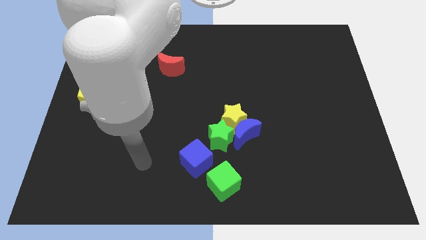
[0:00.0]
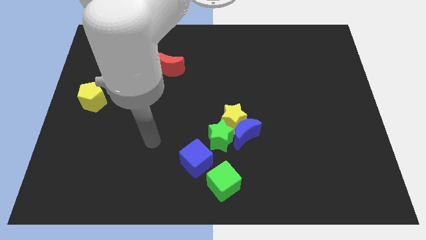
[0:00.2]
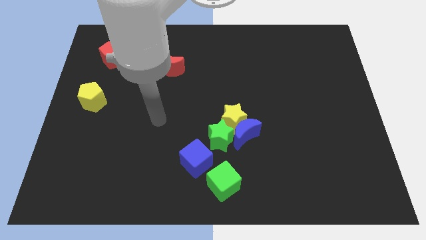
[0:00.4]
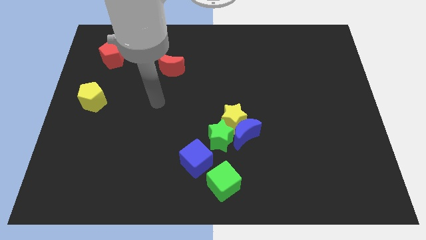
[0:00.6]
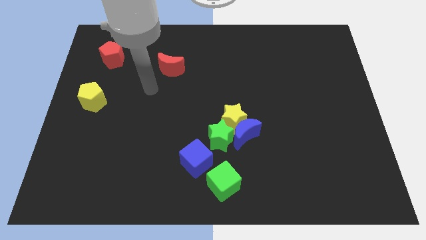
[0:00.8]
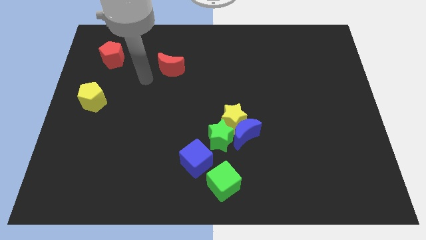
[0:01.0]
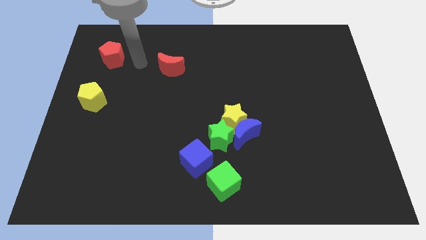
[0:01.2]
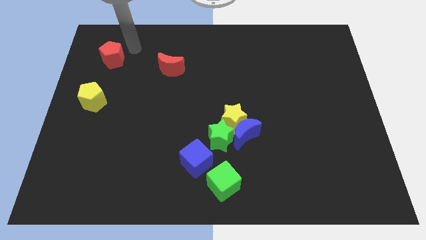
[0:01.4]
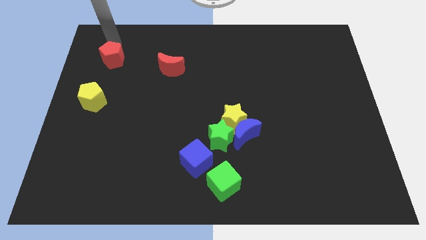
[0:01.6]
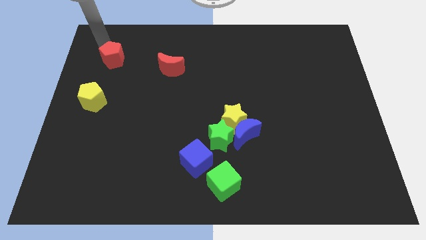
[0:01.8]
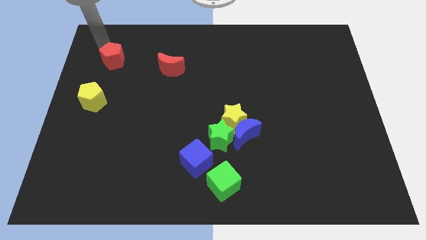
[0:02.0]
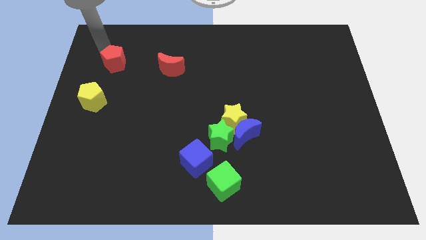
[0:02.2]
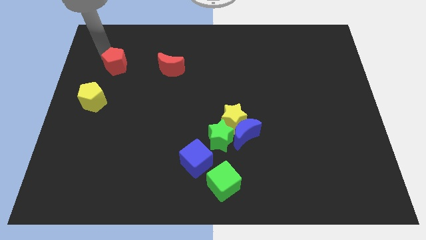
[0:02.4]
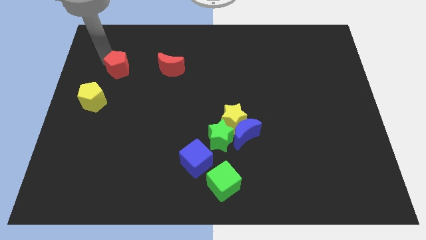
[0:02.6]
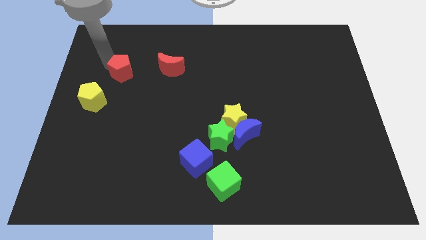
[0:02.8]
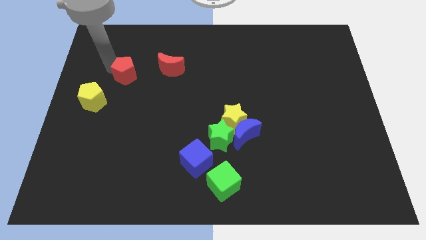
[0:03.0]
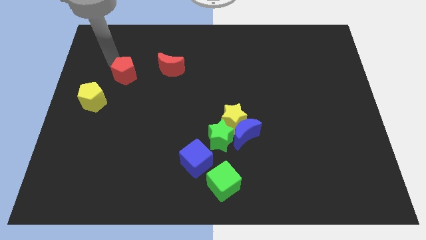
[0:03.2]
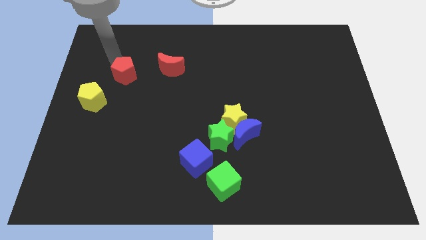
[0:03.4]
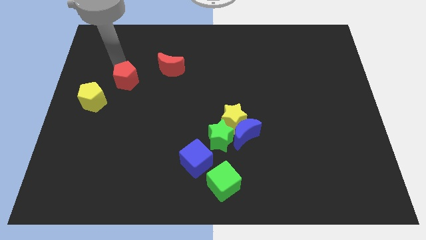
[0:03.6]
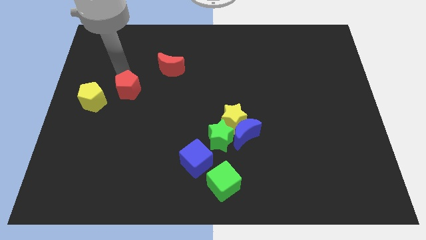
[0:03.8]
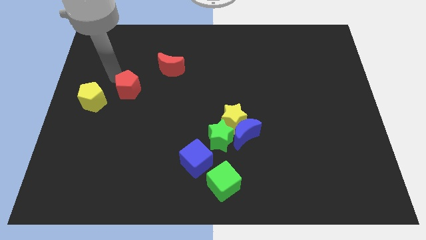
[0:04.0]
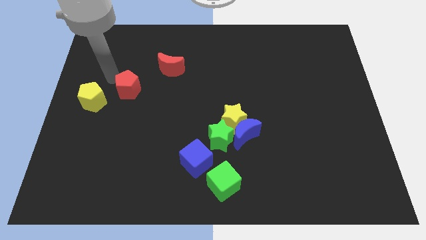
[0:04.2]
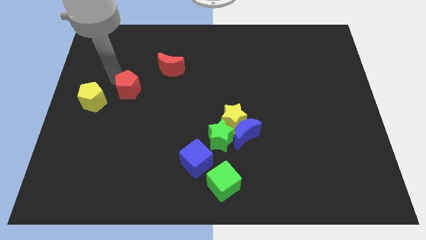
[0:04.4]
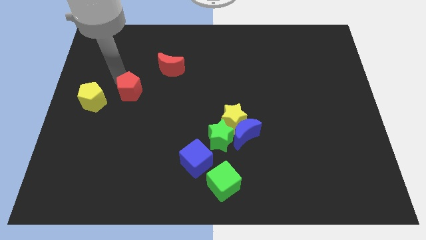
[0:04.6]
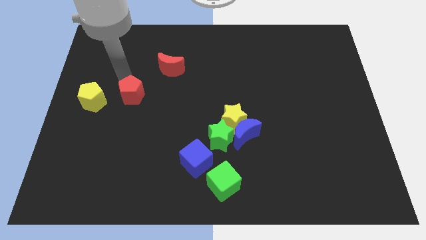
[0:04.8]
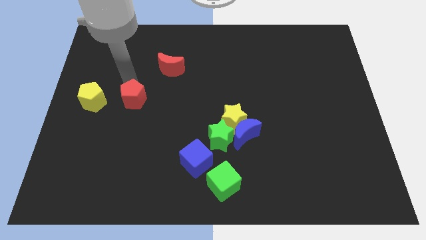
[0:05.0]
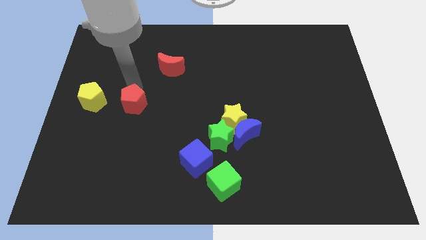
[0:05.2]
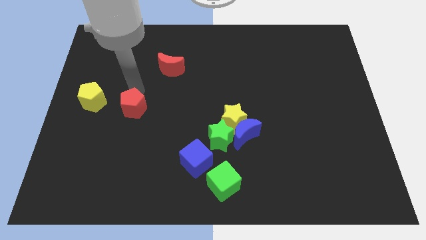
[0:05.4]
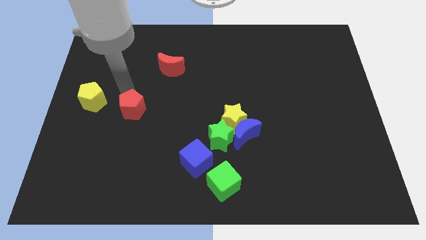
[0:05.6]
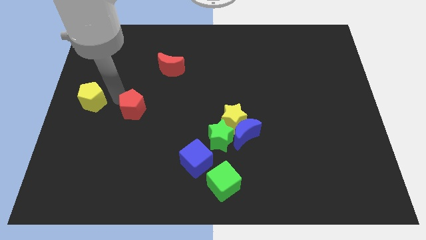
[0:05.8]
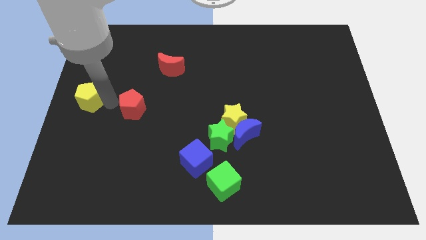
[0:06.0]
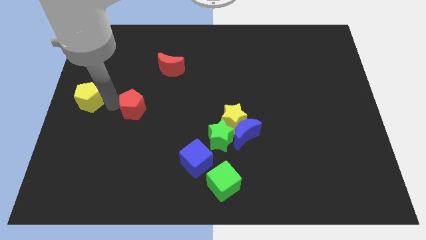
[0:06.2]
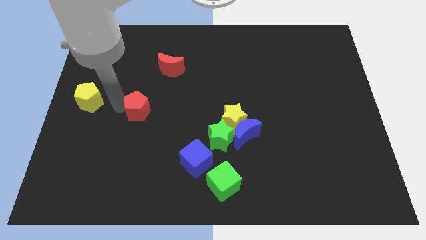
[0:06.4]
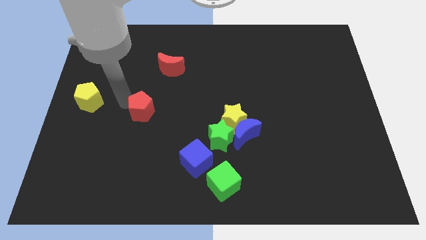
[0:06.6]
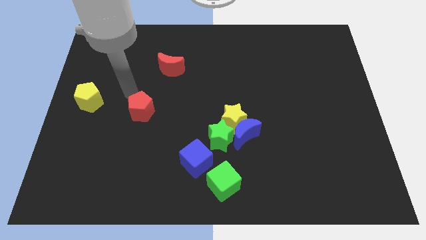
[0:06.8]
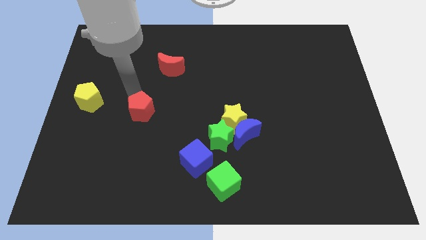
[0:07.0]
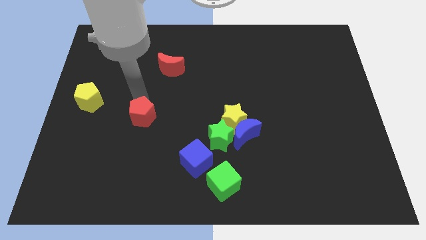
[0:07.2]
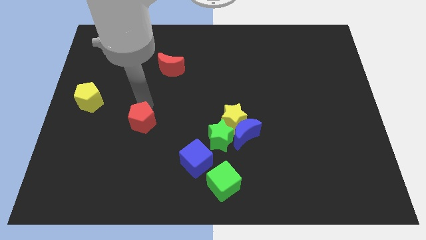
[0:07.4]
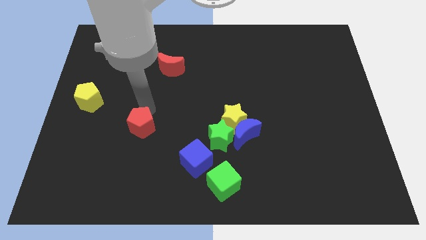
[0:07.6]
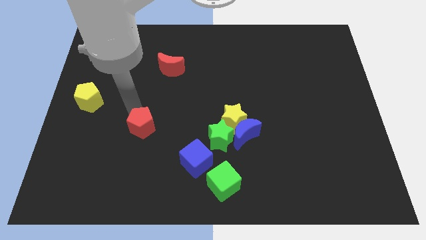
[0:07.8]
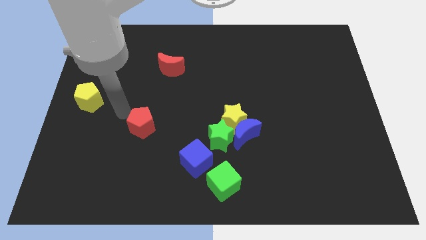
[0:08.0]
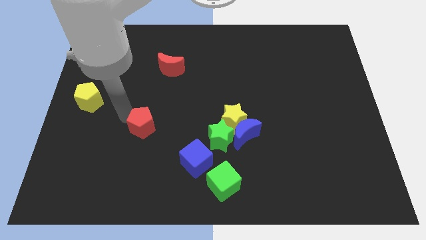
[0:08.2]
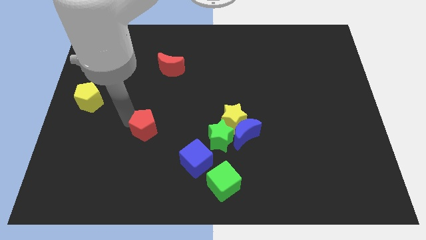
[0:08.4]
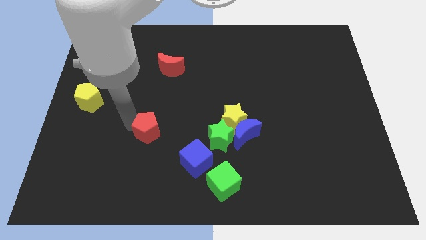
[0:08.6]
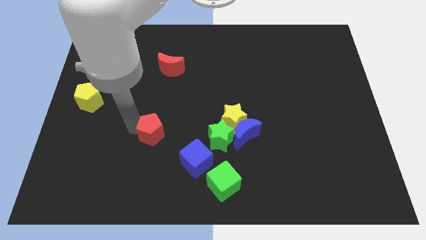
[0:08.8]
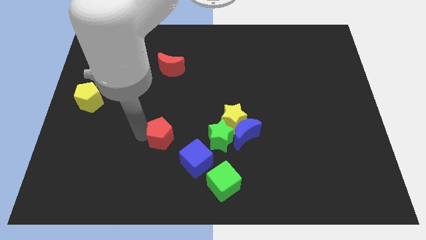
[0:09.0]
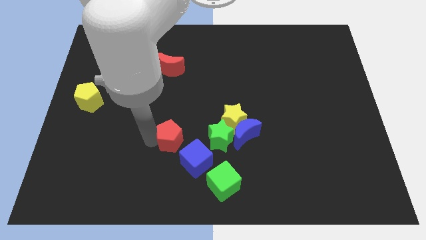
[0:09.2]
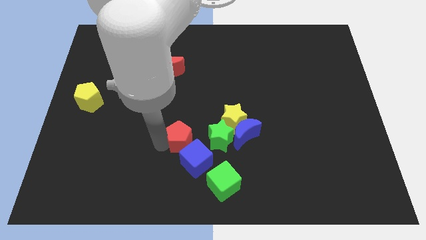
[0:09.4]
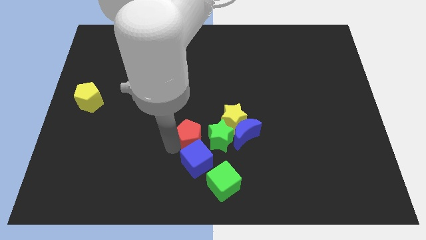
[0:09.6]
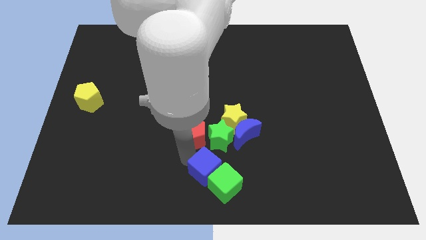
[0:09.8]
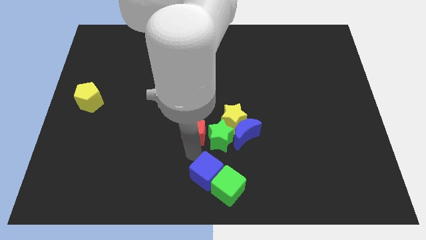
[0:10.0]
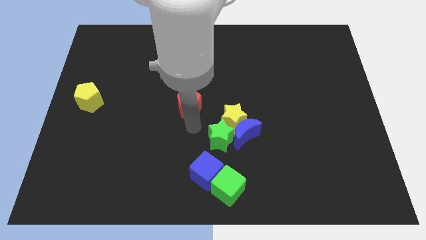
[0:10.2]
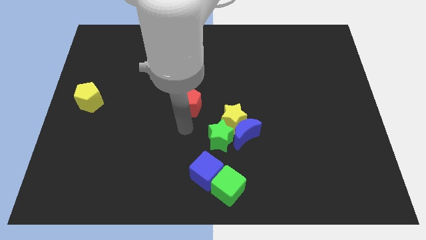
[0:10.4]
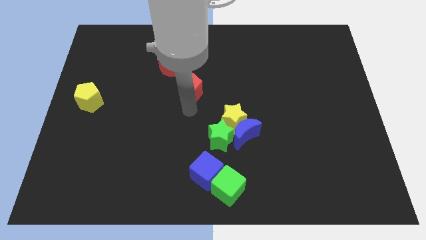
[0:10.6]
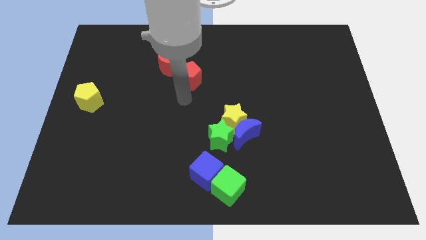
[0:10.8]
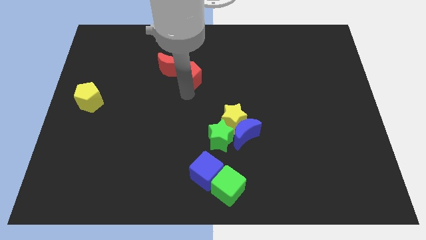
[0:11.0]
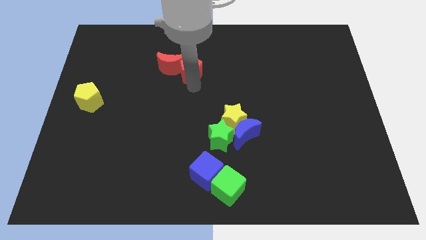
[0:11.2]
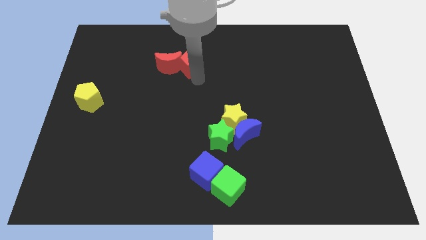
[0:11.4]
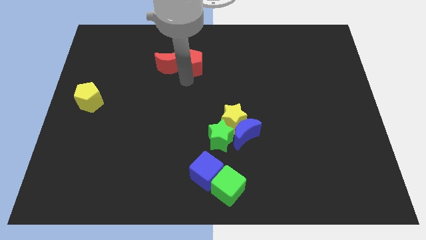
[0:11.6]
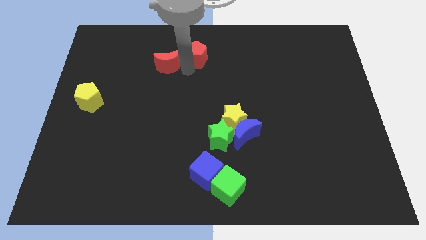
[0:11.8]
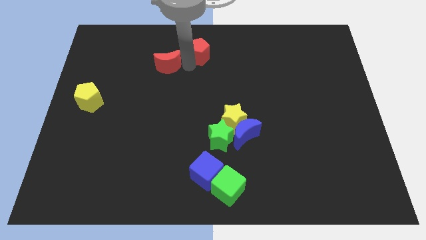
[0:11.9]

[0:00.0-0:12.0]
push the red pentagon to the towards your base

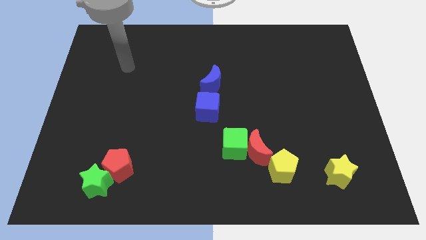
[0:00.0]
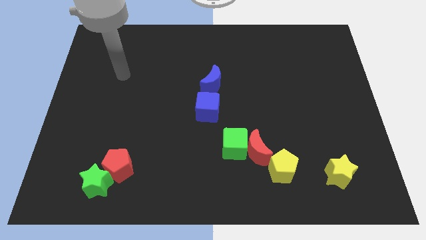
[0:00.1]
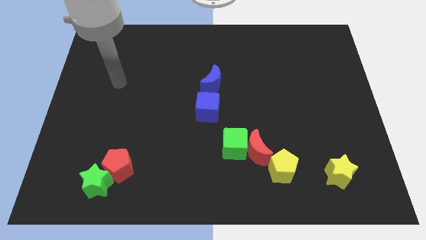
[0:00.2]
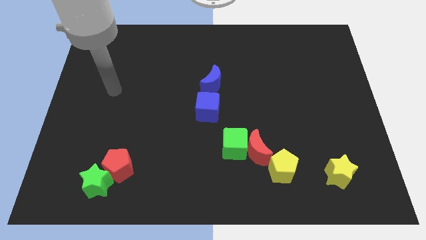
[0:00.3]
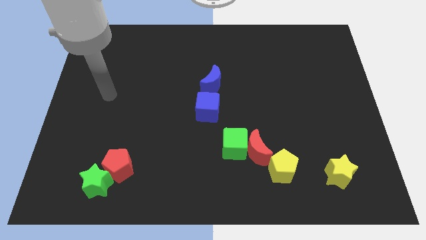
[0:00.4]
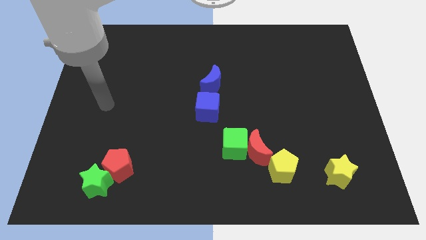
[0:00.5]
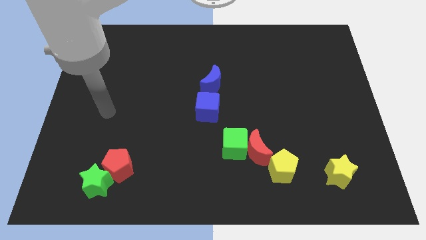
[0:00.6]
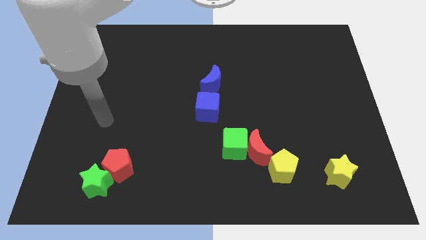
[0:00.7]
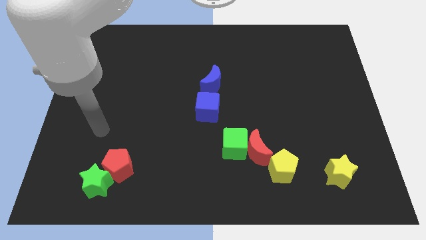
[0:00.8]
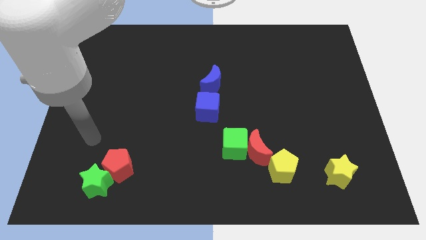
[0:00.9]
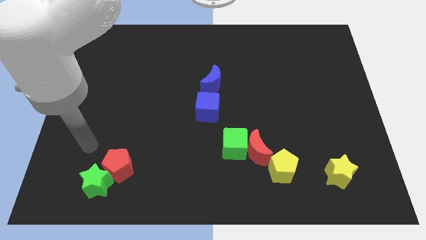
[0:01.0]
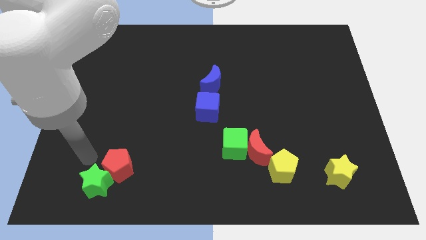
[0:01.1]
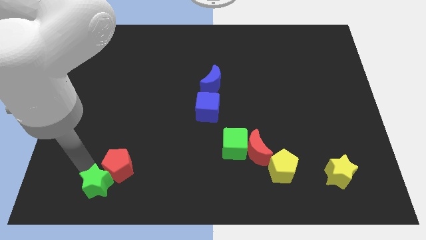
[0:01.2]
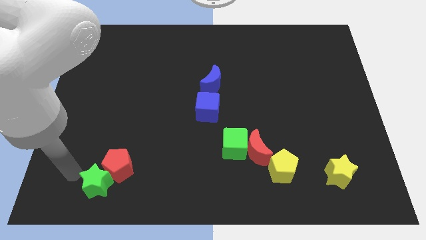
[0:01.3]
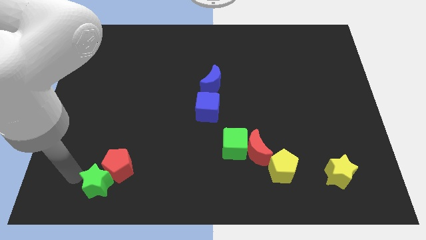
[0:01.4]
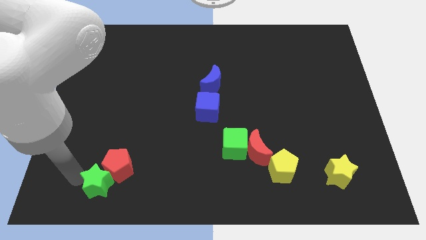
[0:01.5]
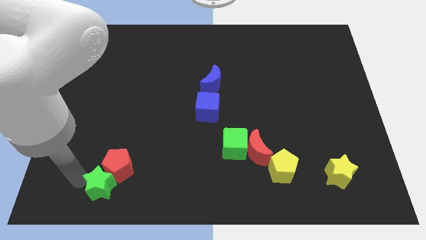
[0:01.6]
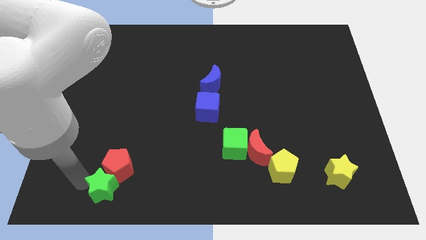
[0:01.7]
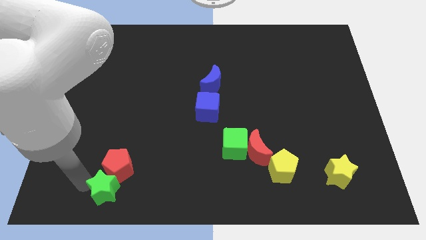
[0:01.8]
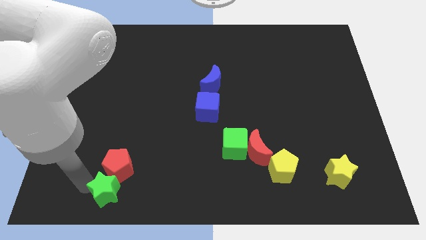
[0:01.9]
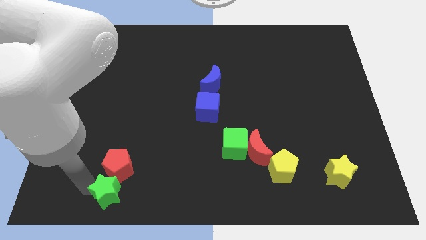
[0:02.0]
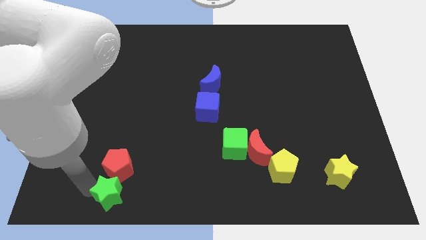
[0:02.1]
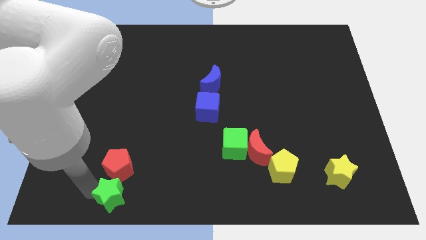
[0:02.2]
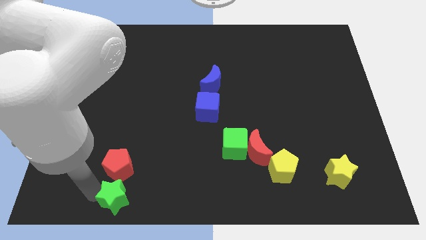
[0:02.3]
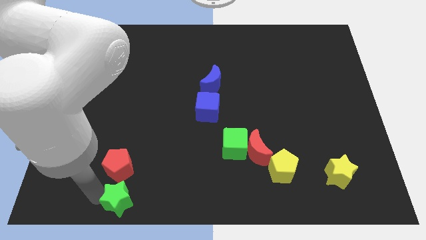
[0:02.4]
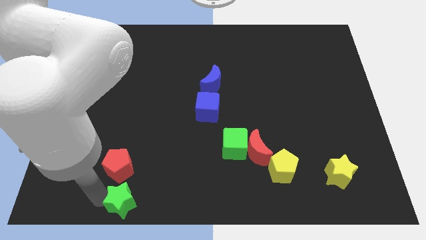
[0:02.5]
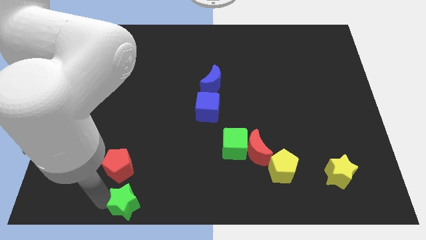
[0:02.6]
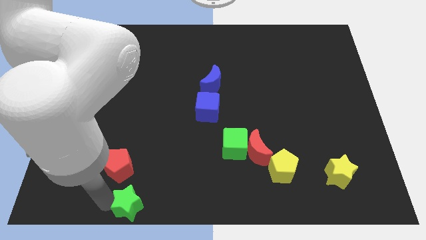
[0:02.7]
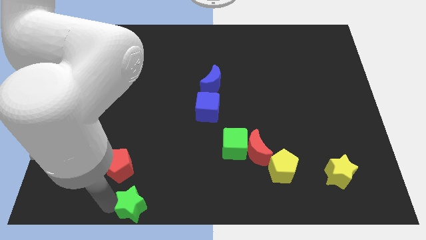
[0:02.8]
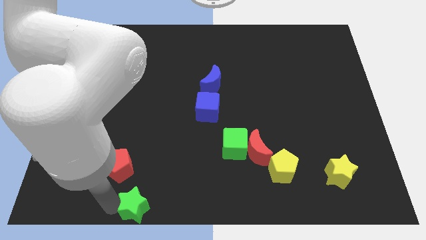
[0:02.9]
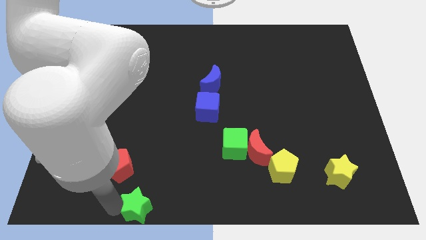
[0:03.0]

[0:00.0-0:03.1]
move the green star to the bottom
